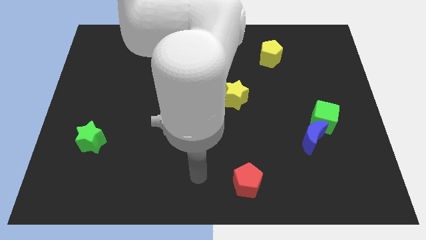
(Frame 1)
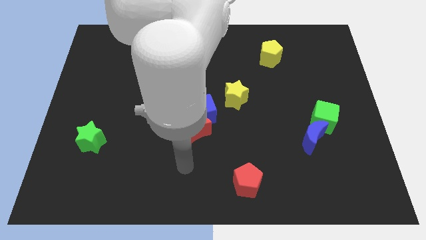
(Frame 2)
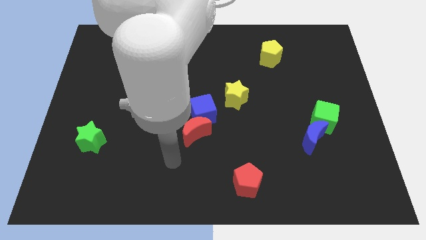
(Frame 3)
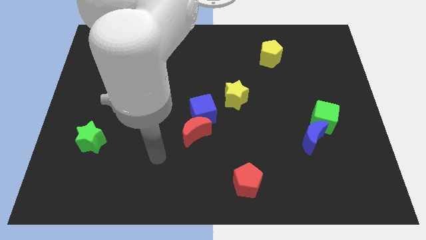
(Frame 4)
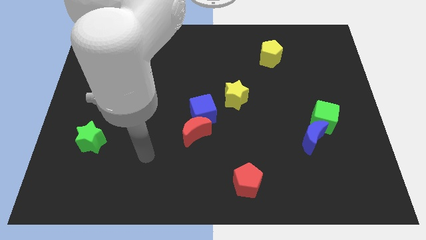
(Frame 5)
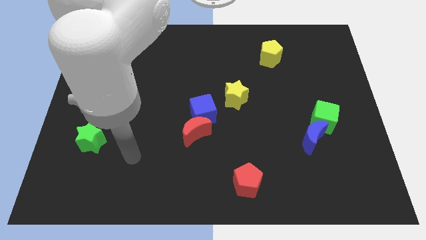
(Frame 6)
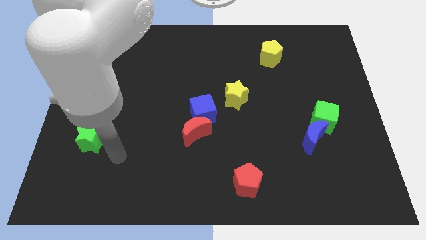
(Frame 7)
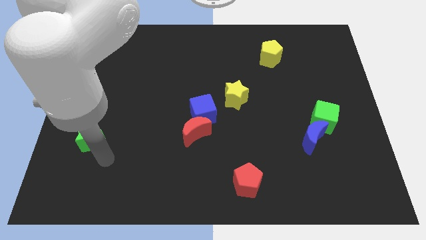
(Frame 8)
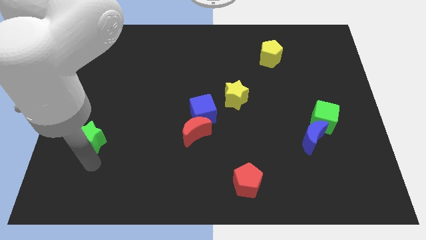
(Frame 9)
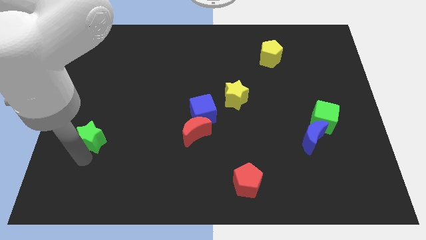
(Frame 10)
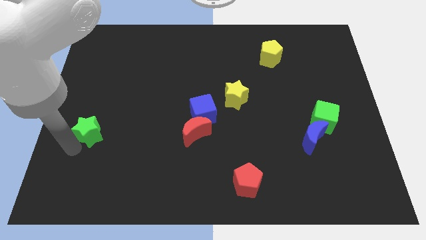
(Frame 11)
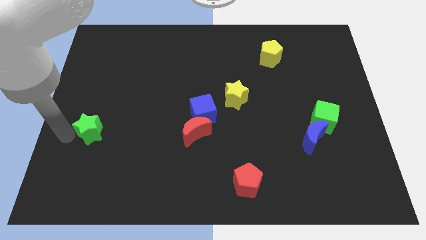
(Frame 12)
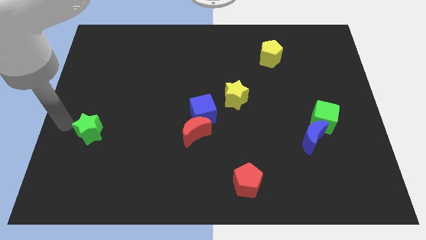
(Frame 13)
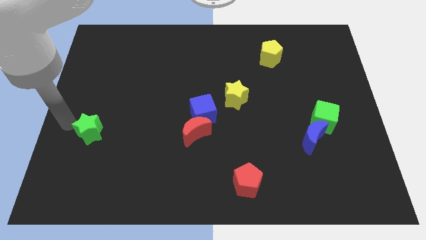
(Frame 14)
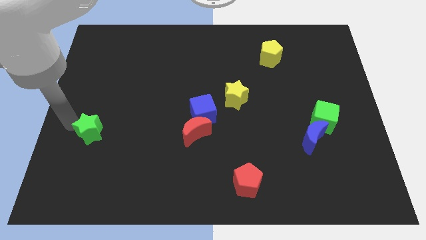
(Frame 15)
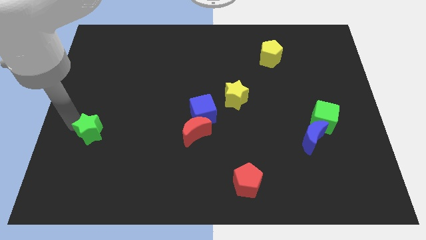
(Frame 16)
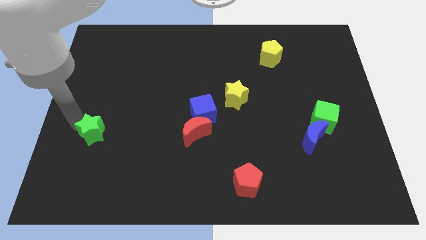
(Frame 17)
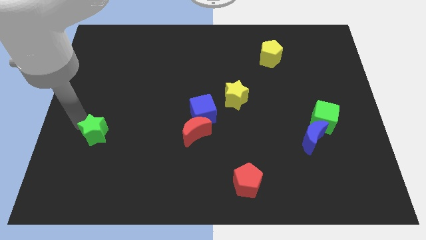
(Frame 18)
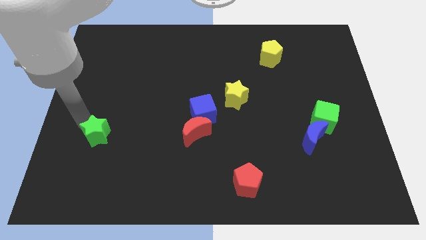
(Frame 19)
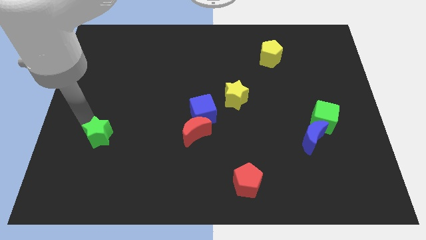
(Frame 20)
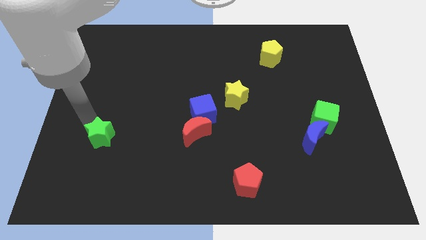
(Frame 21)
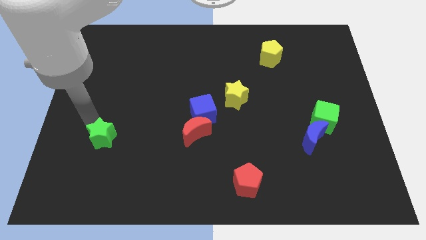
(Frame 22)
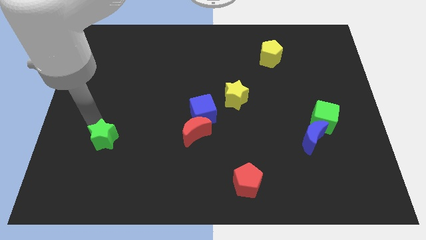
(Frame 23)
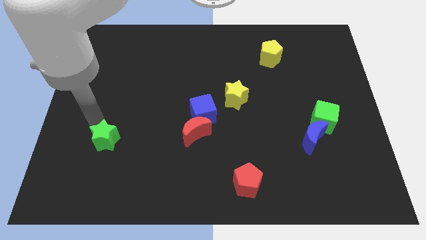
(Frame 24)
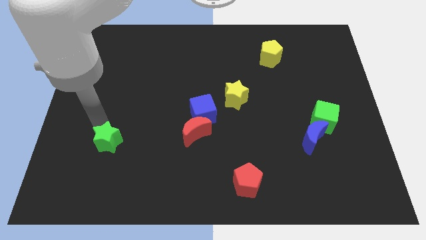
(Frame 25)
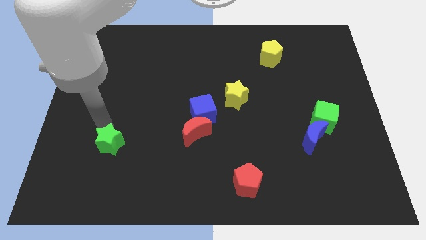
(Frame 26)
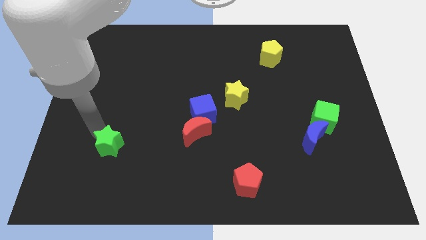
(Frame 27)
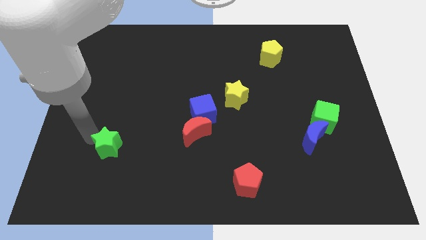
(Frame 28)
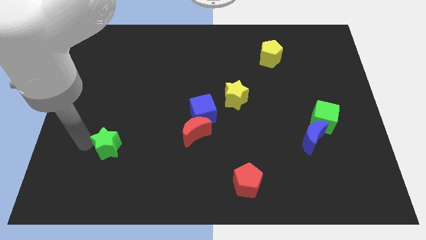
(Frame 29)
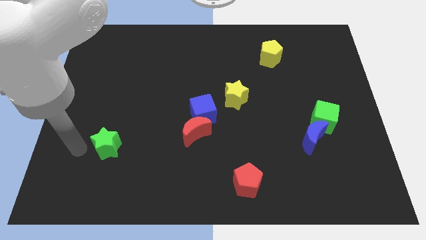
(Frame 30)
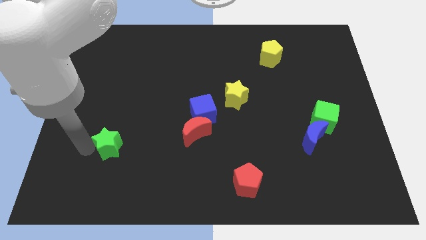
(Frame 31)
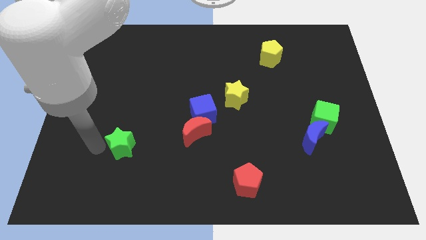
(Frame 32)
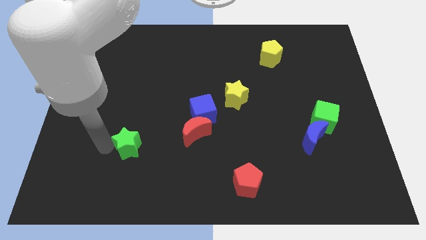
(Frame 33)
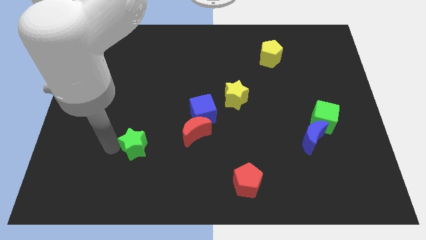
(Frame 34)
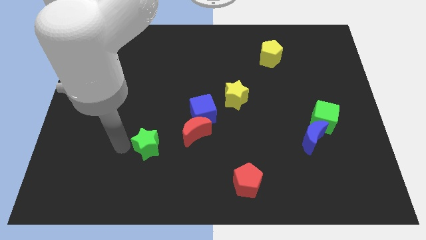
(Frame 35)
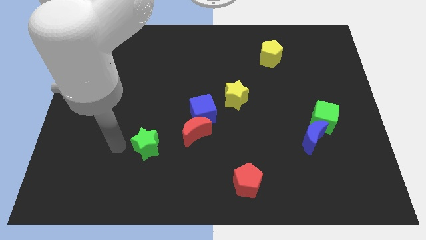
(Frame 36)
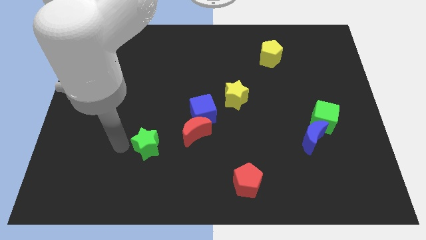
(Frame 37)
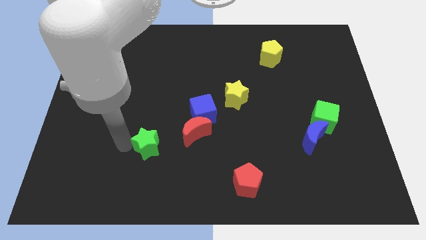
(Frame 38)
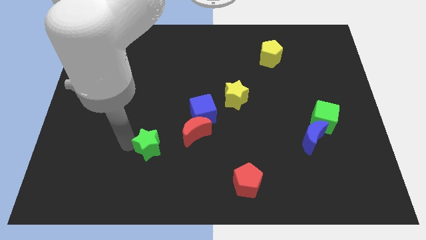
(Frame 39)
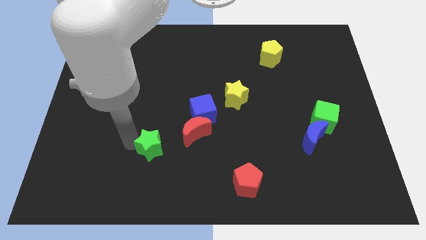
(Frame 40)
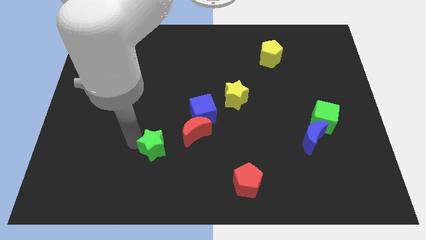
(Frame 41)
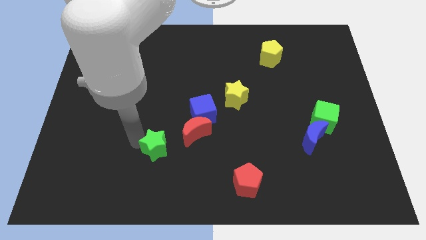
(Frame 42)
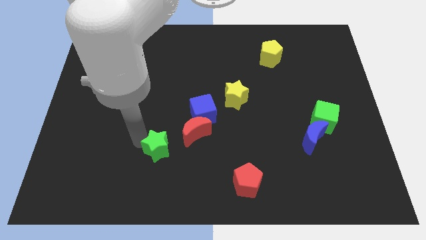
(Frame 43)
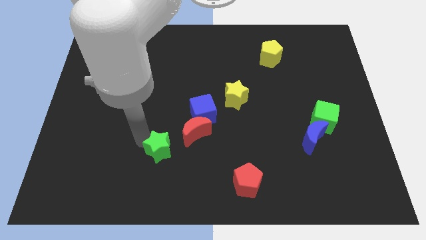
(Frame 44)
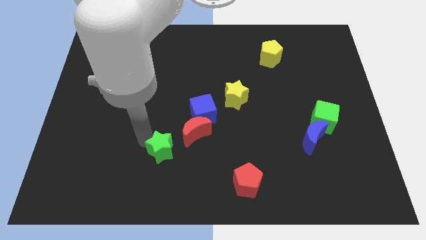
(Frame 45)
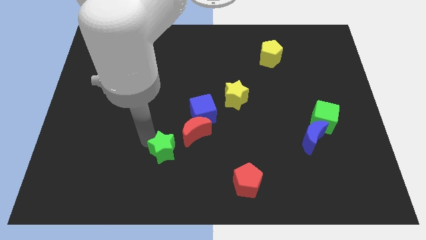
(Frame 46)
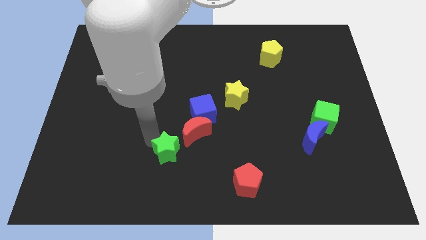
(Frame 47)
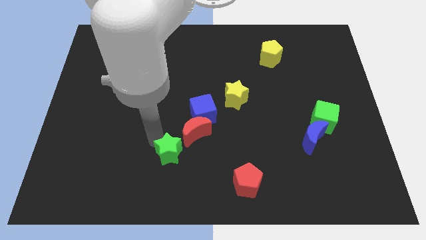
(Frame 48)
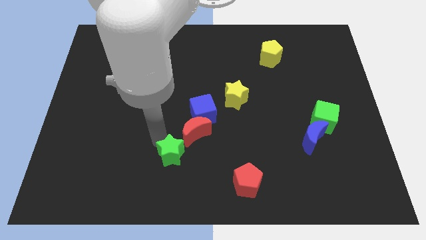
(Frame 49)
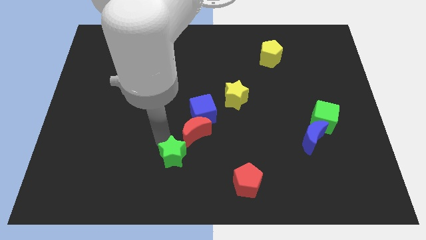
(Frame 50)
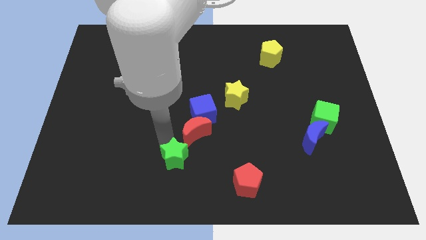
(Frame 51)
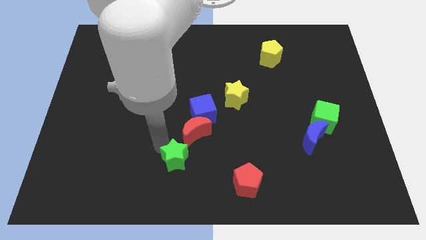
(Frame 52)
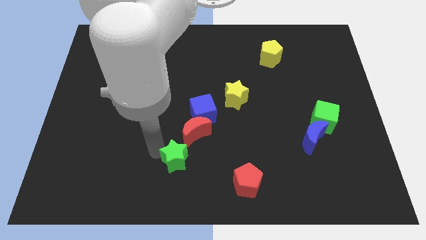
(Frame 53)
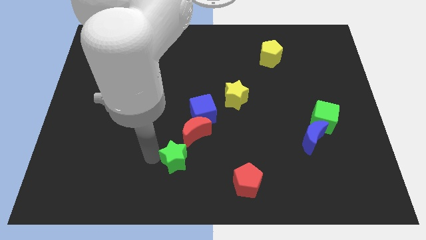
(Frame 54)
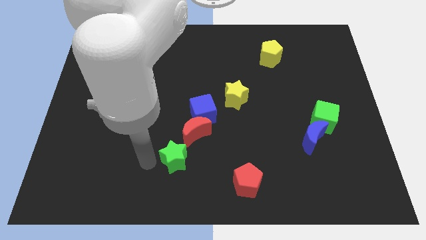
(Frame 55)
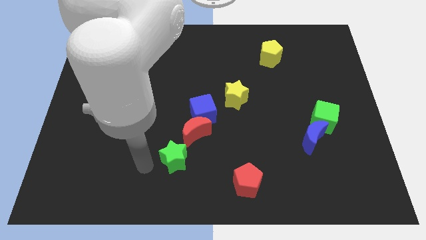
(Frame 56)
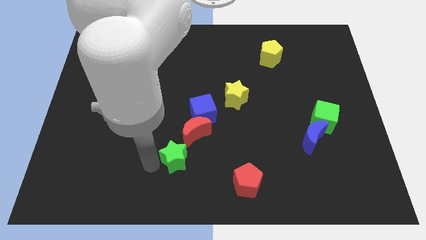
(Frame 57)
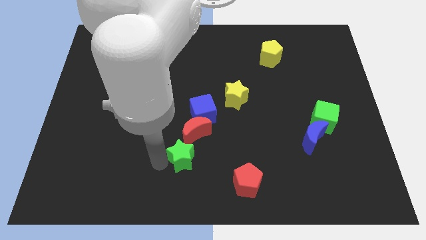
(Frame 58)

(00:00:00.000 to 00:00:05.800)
slide the green star below the blue cube
